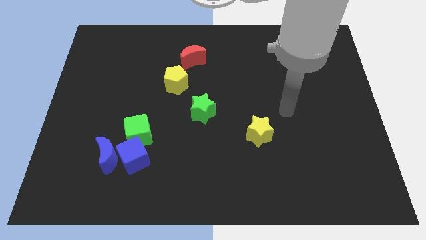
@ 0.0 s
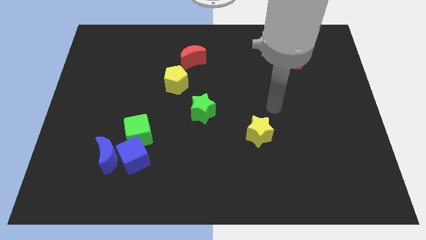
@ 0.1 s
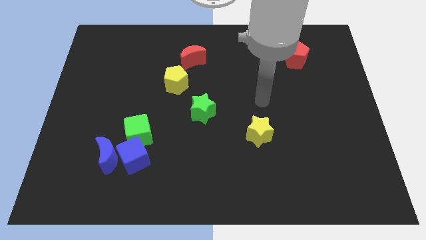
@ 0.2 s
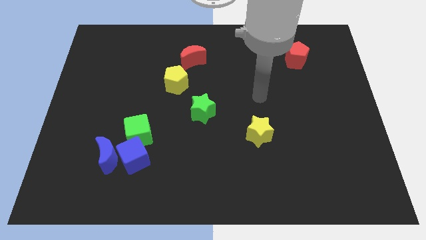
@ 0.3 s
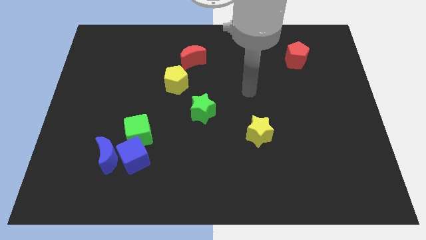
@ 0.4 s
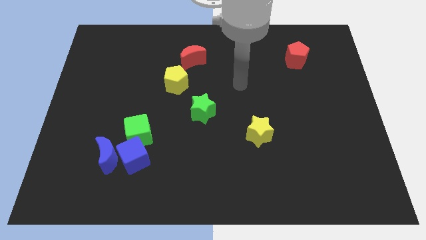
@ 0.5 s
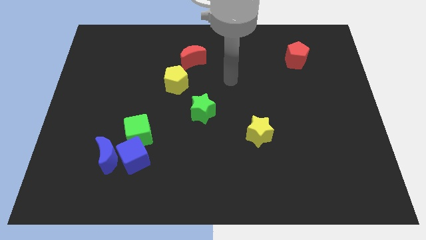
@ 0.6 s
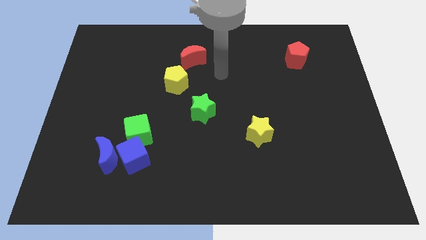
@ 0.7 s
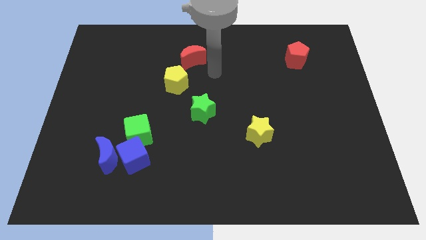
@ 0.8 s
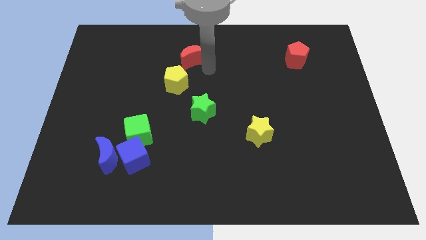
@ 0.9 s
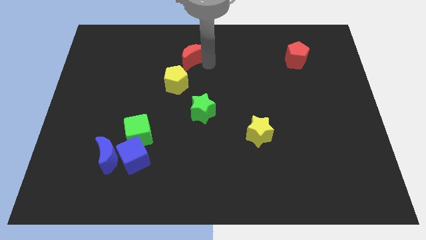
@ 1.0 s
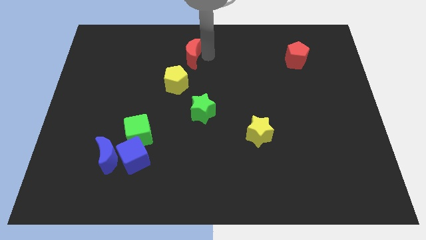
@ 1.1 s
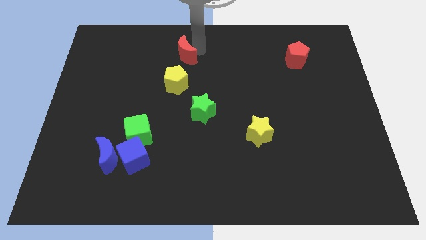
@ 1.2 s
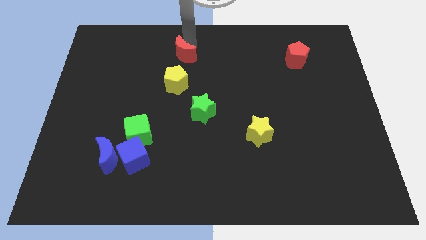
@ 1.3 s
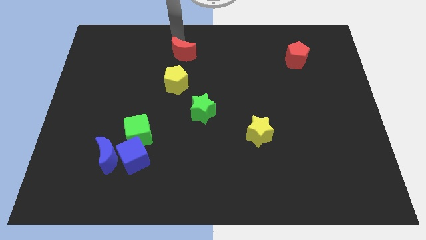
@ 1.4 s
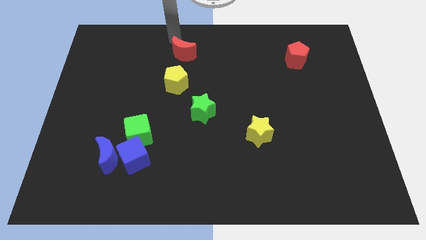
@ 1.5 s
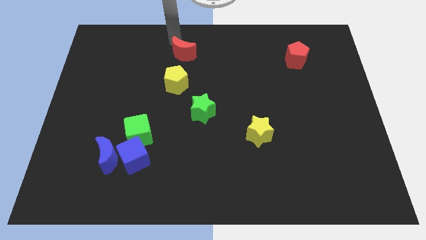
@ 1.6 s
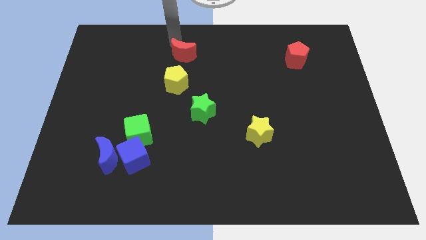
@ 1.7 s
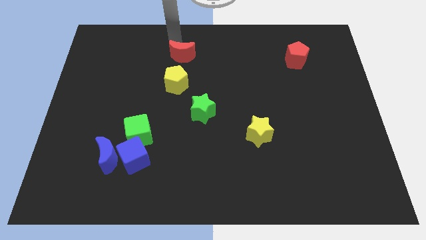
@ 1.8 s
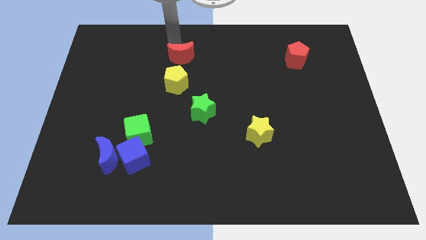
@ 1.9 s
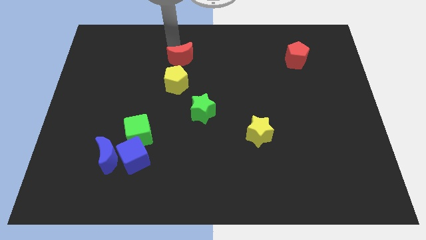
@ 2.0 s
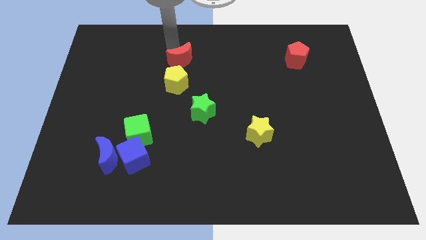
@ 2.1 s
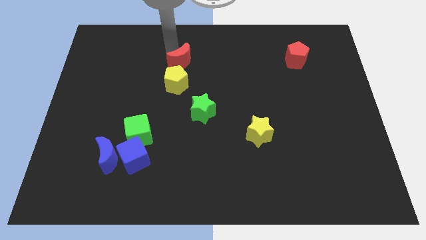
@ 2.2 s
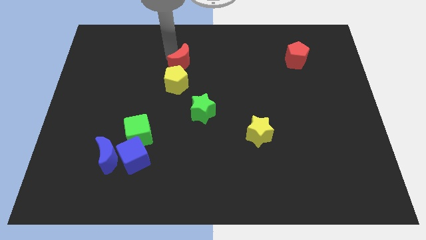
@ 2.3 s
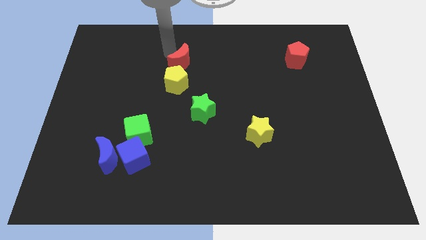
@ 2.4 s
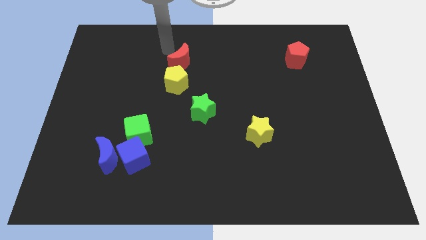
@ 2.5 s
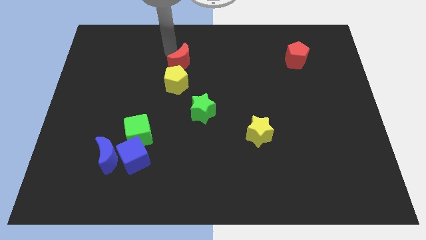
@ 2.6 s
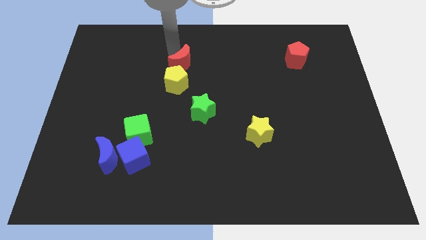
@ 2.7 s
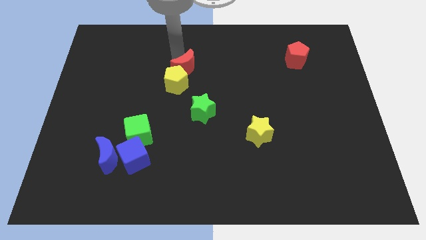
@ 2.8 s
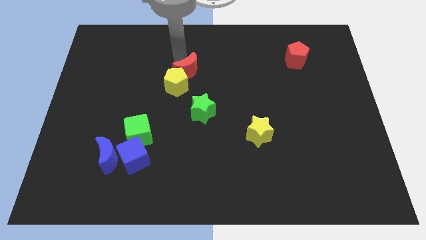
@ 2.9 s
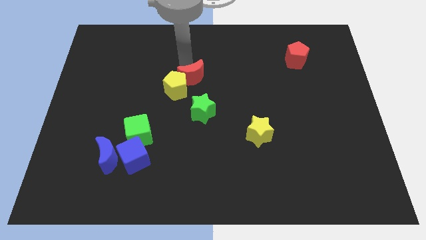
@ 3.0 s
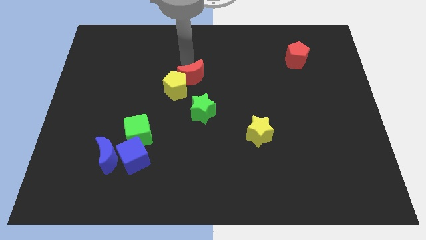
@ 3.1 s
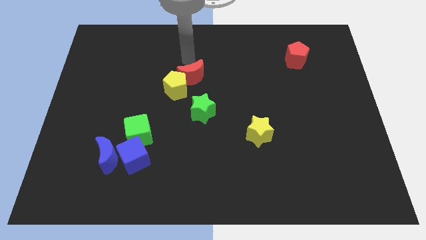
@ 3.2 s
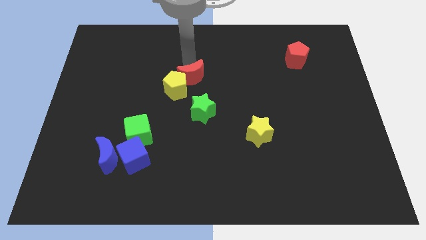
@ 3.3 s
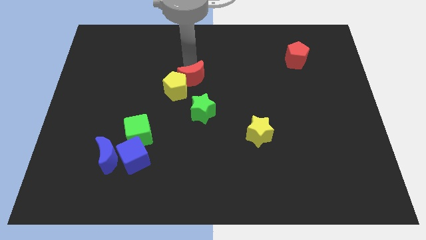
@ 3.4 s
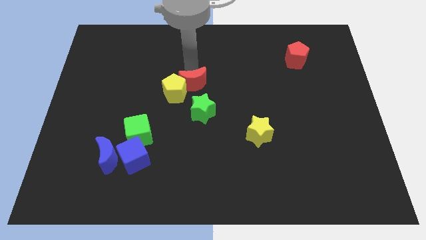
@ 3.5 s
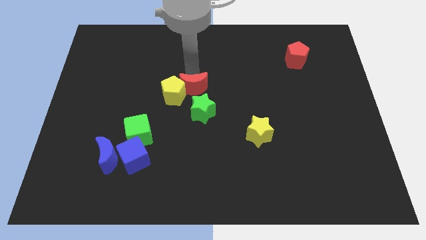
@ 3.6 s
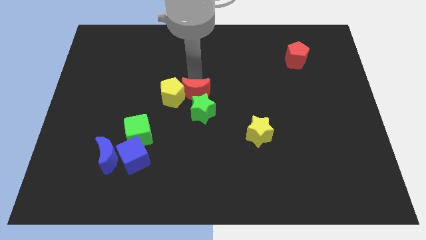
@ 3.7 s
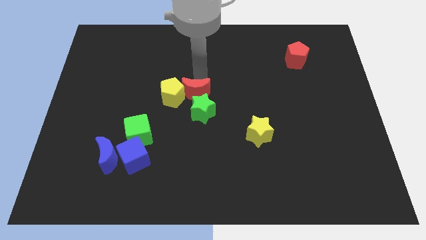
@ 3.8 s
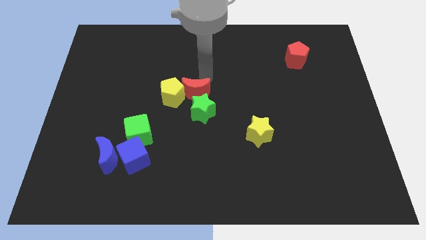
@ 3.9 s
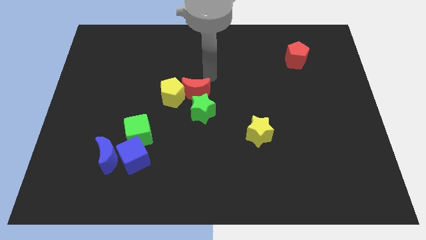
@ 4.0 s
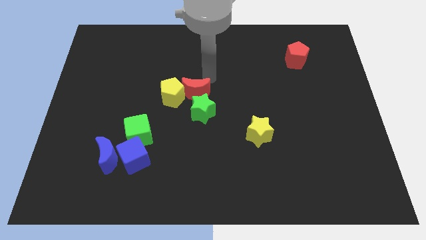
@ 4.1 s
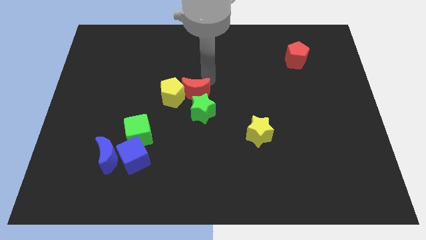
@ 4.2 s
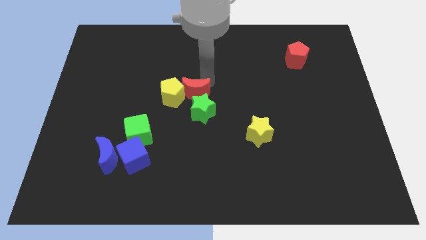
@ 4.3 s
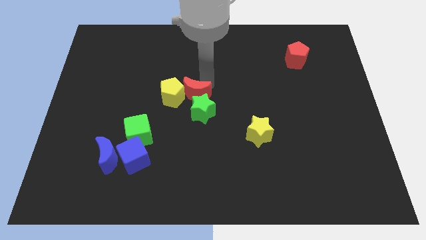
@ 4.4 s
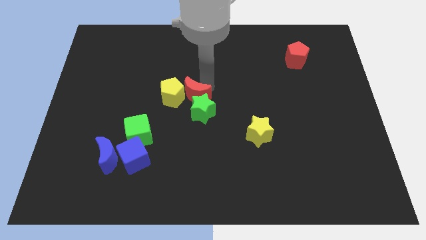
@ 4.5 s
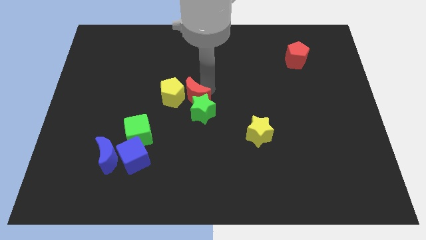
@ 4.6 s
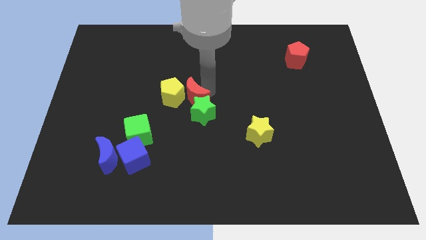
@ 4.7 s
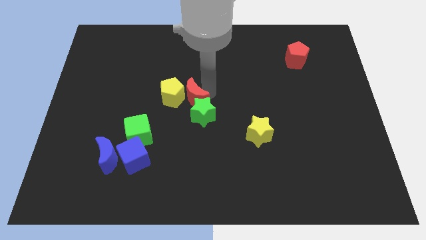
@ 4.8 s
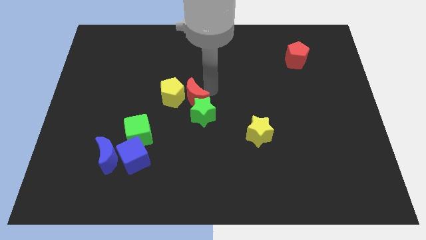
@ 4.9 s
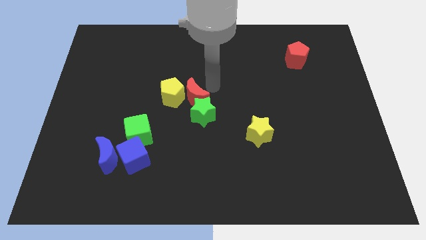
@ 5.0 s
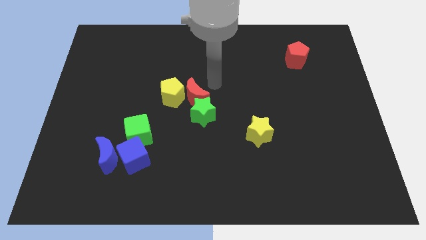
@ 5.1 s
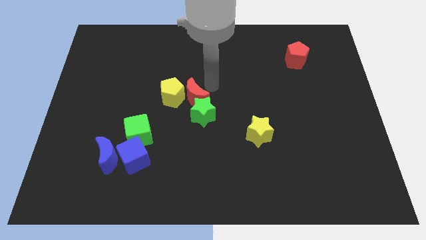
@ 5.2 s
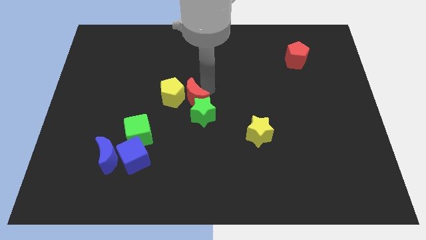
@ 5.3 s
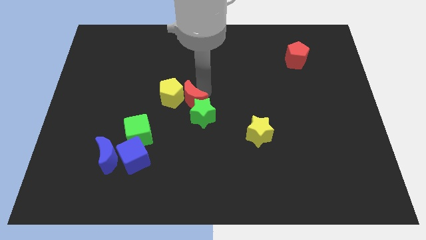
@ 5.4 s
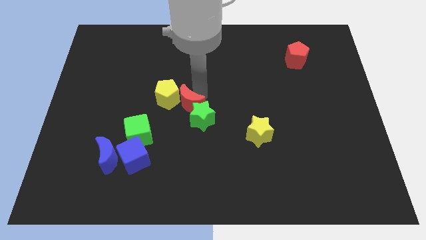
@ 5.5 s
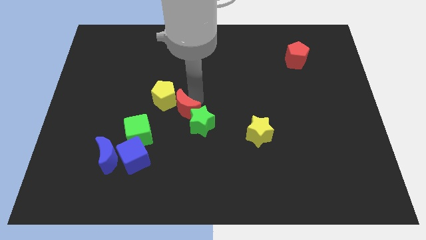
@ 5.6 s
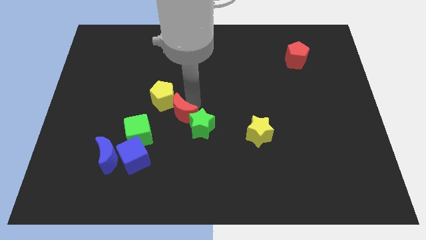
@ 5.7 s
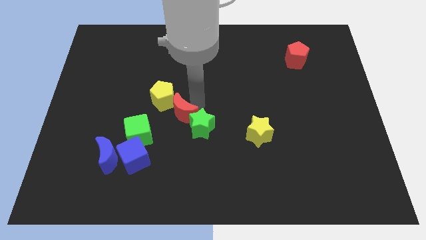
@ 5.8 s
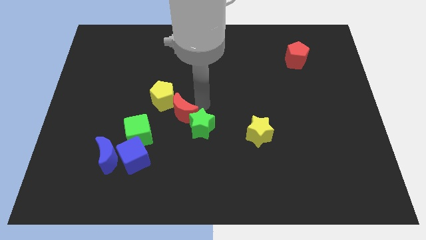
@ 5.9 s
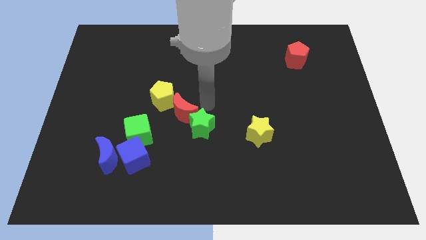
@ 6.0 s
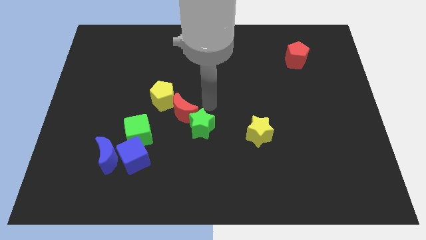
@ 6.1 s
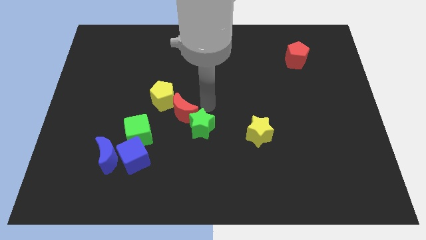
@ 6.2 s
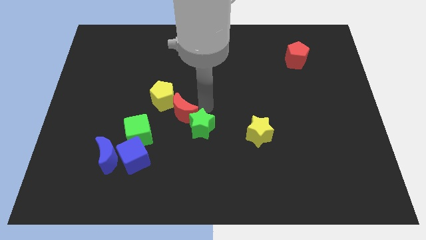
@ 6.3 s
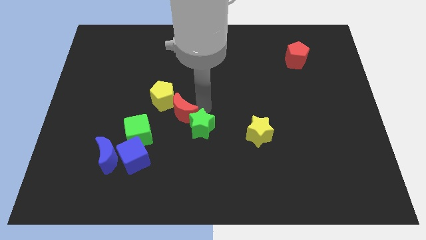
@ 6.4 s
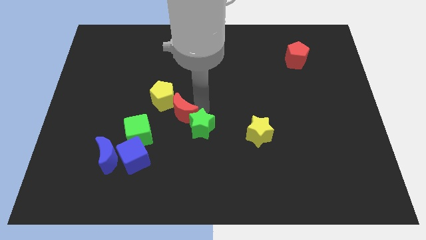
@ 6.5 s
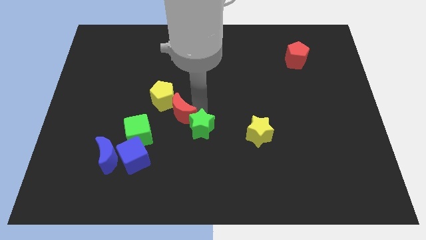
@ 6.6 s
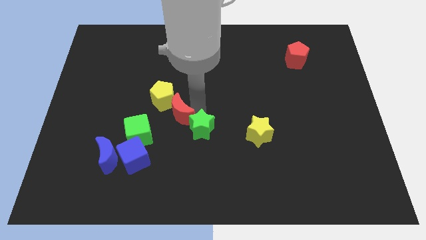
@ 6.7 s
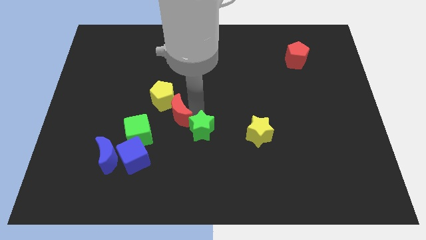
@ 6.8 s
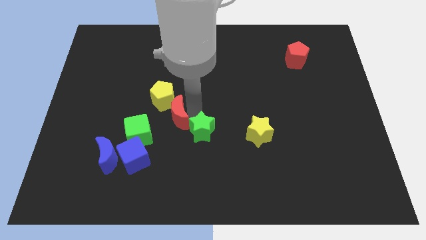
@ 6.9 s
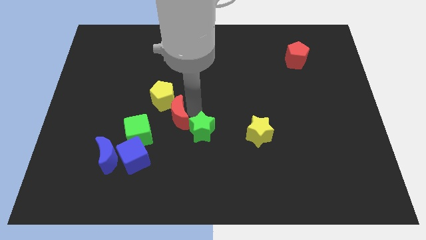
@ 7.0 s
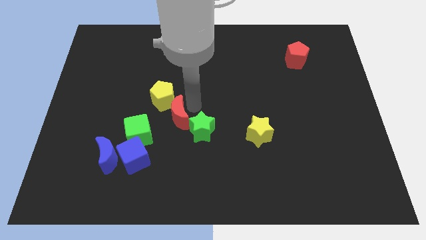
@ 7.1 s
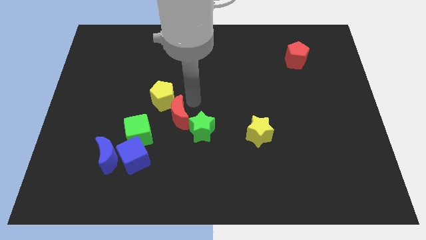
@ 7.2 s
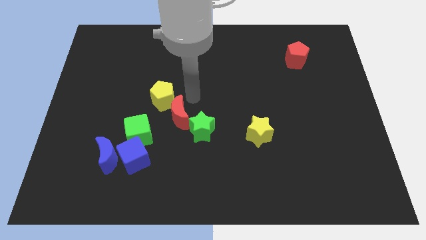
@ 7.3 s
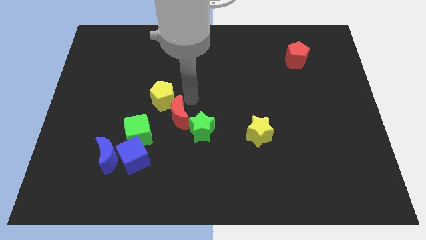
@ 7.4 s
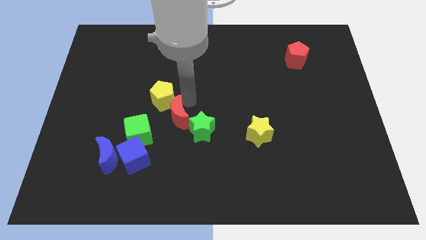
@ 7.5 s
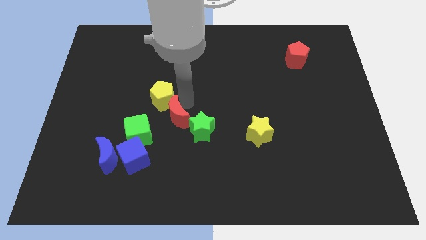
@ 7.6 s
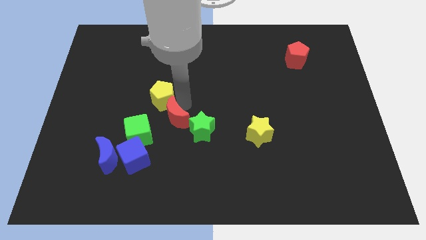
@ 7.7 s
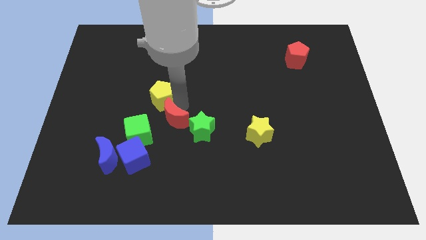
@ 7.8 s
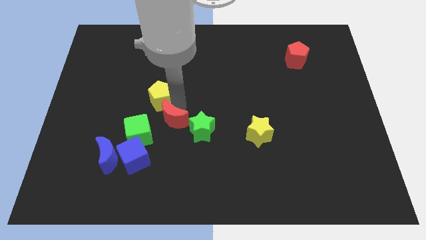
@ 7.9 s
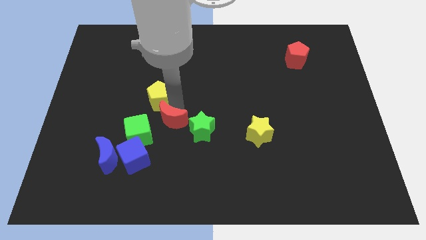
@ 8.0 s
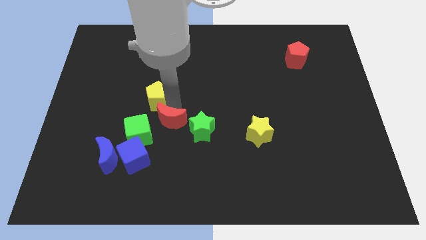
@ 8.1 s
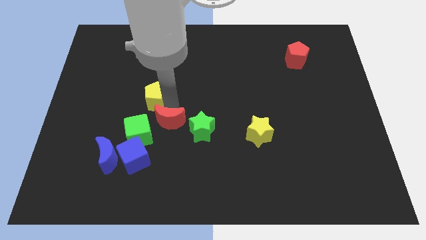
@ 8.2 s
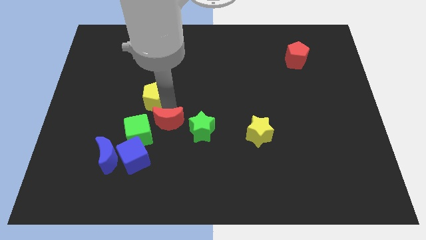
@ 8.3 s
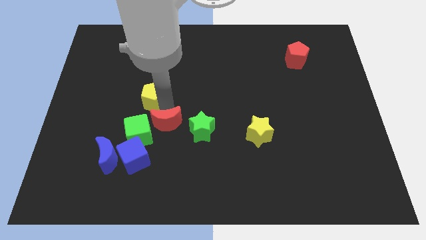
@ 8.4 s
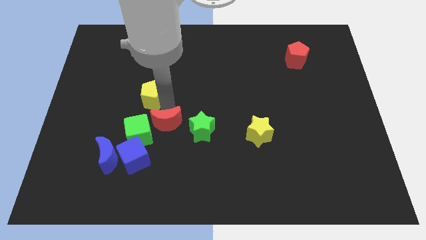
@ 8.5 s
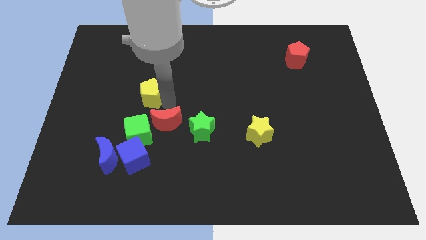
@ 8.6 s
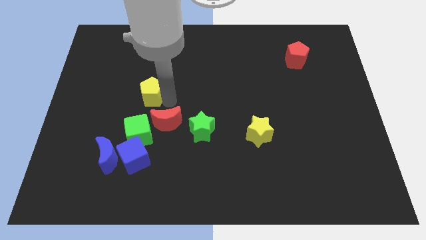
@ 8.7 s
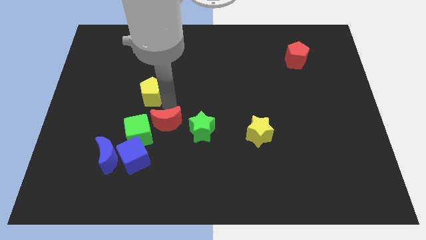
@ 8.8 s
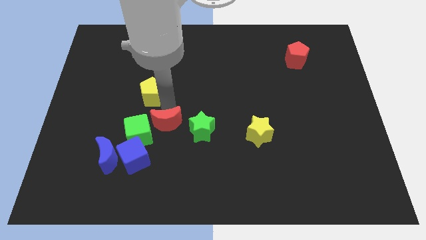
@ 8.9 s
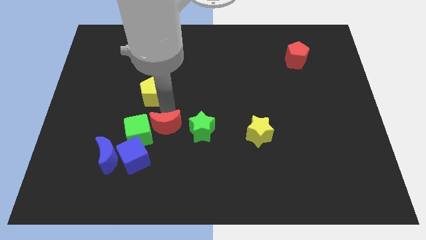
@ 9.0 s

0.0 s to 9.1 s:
push the red moon downwards
